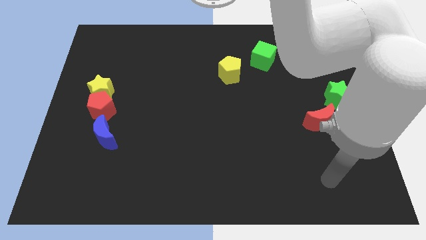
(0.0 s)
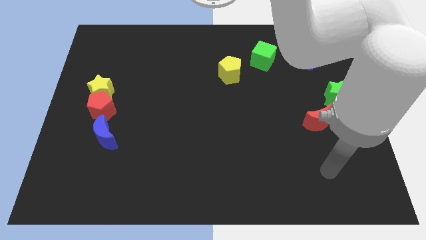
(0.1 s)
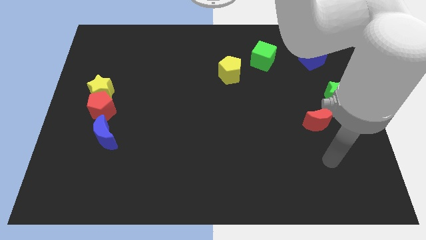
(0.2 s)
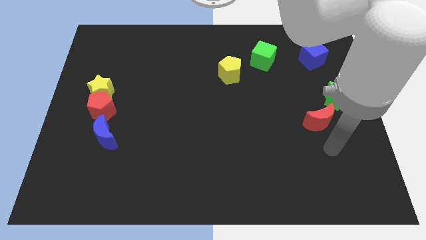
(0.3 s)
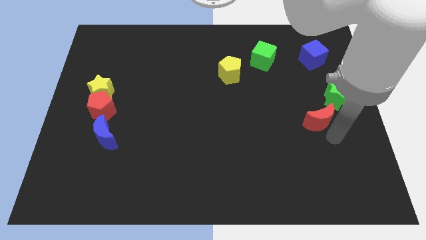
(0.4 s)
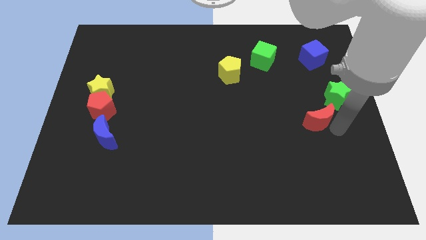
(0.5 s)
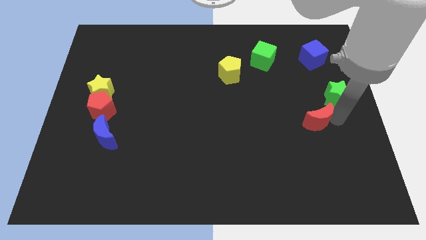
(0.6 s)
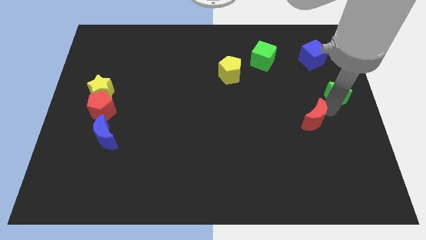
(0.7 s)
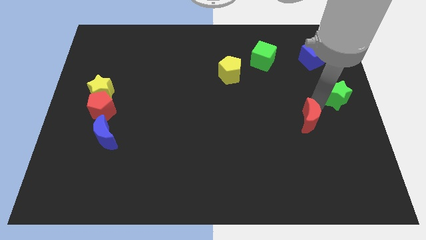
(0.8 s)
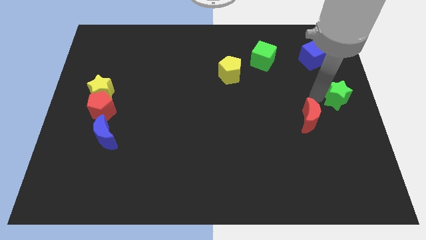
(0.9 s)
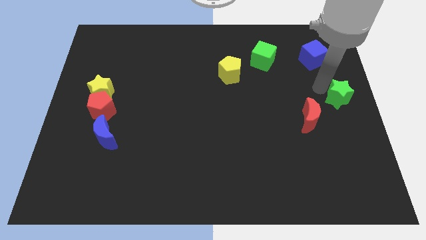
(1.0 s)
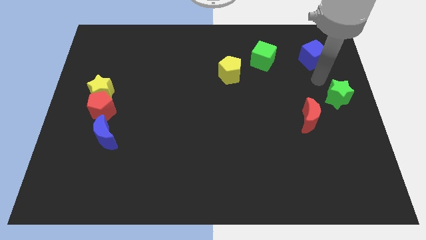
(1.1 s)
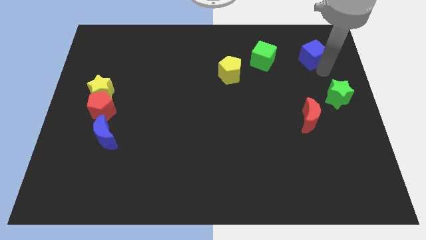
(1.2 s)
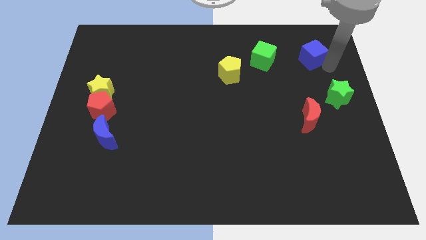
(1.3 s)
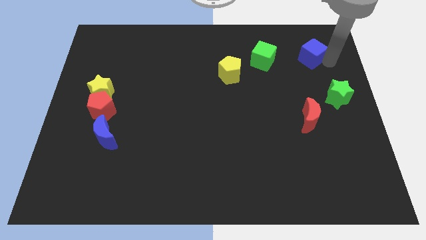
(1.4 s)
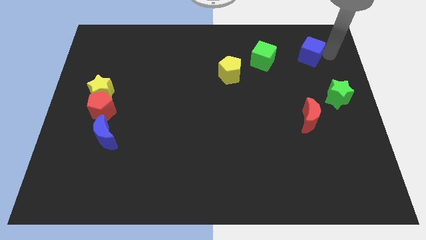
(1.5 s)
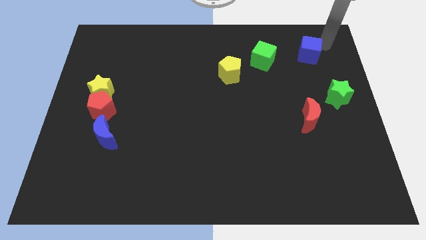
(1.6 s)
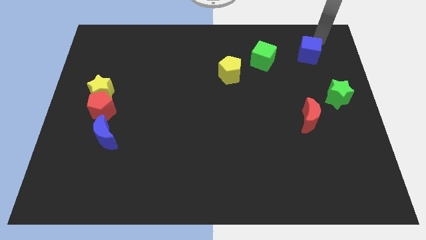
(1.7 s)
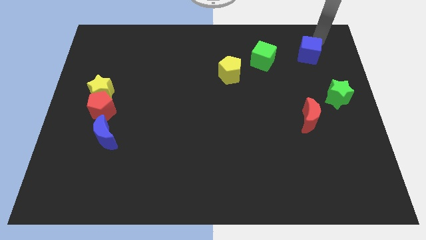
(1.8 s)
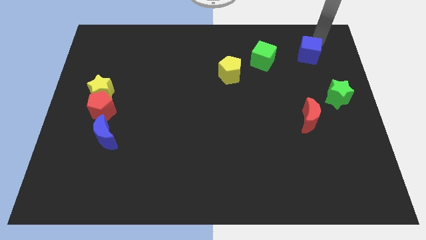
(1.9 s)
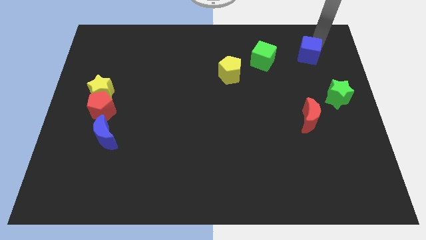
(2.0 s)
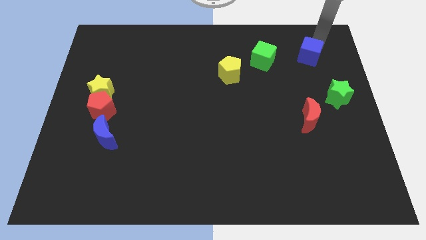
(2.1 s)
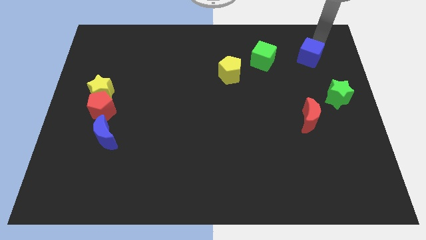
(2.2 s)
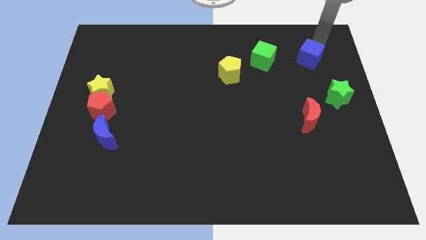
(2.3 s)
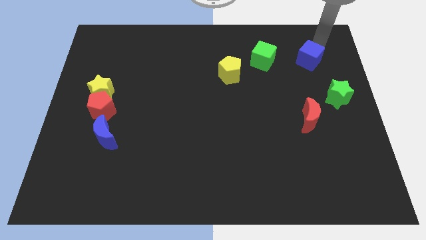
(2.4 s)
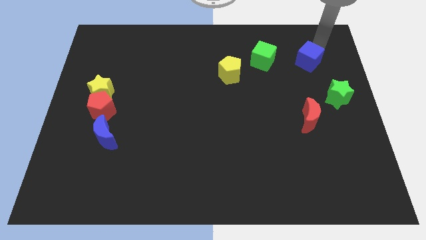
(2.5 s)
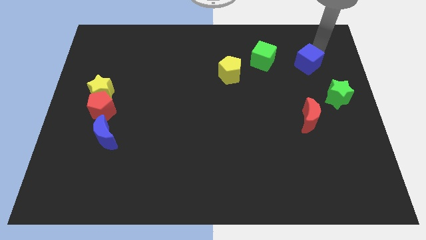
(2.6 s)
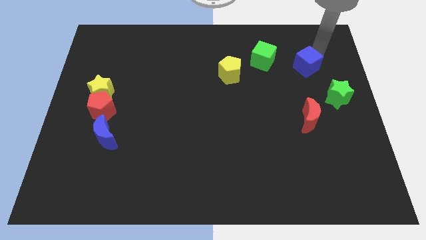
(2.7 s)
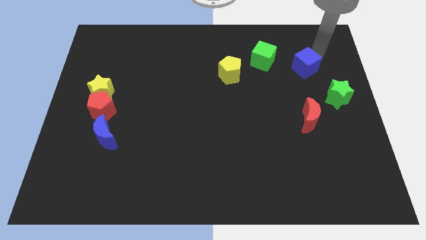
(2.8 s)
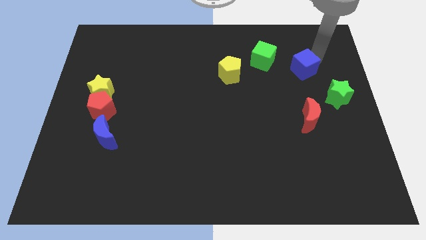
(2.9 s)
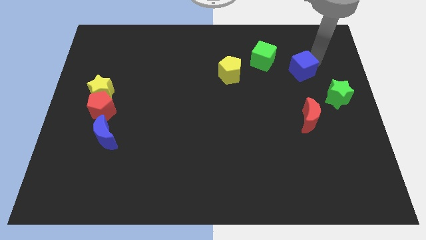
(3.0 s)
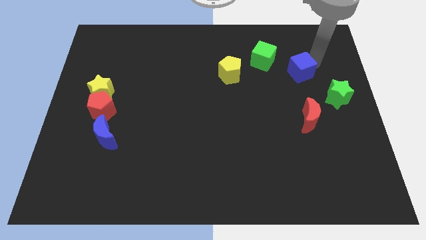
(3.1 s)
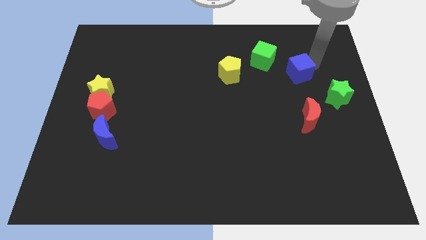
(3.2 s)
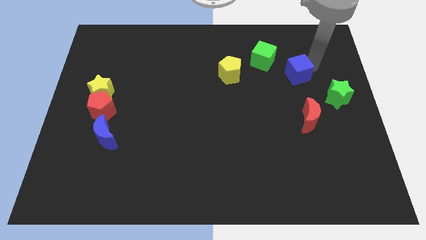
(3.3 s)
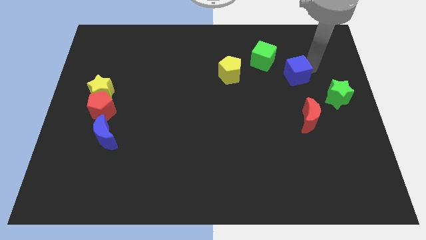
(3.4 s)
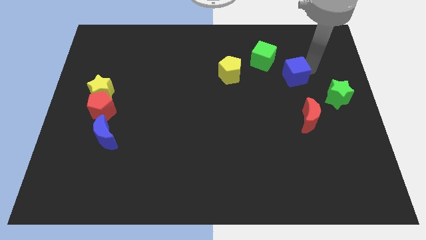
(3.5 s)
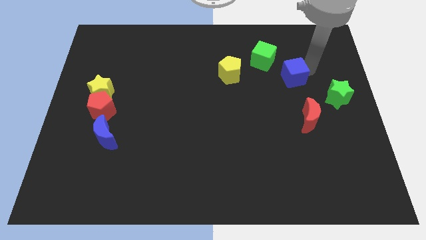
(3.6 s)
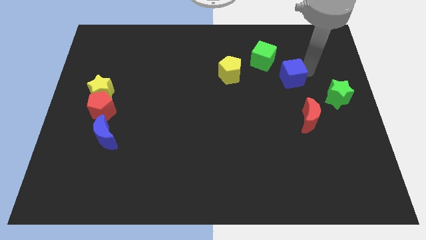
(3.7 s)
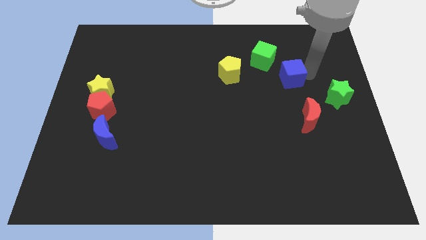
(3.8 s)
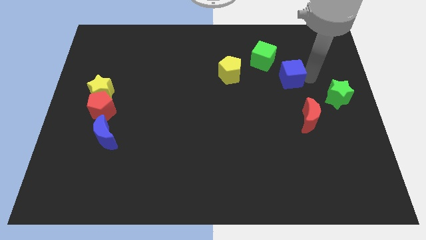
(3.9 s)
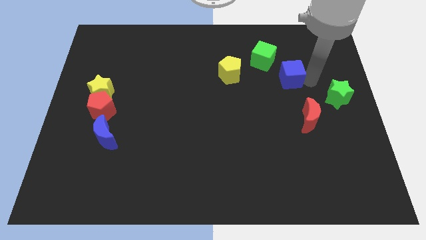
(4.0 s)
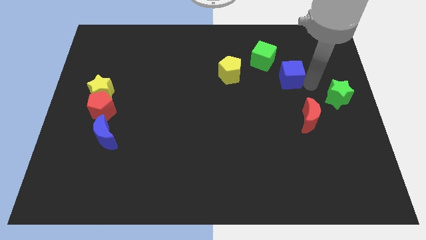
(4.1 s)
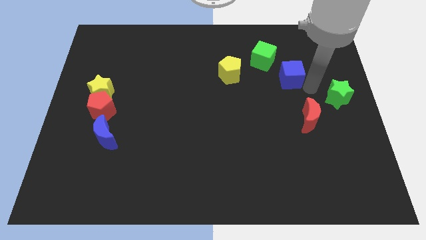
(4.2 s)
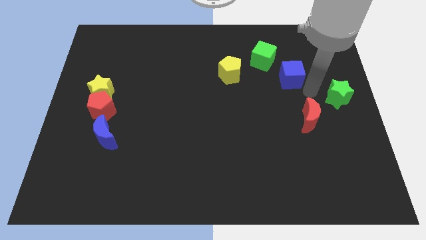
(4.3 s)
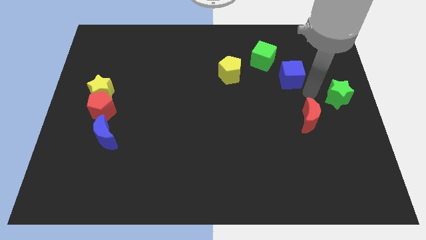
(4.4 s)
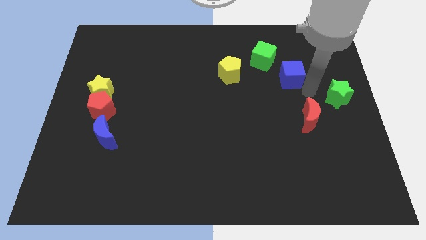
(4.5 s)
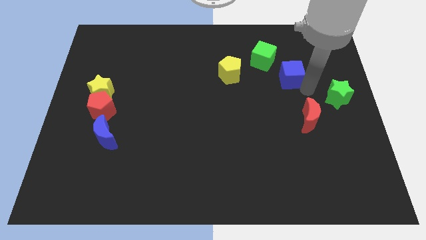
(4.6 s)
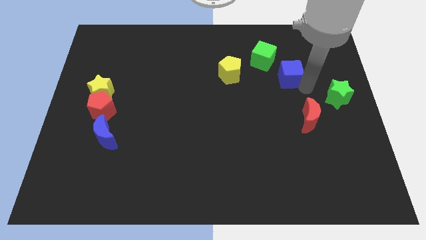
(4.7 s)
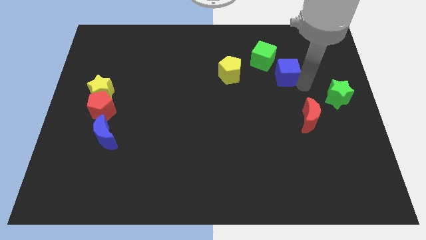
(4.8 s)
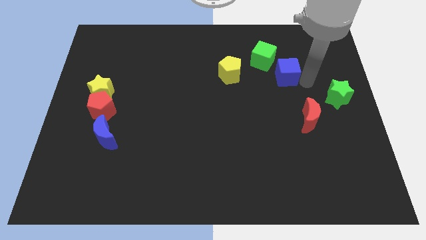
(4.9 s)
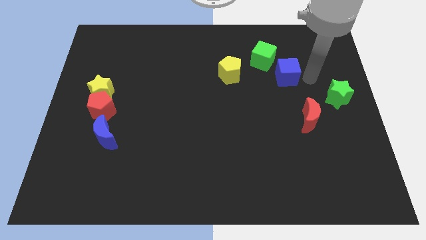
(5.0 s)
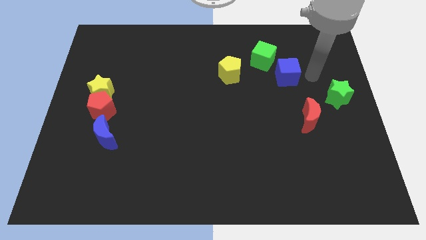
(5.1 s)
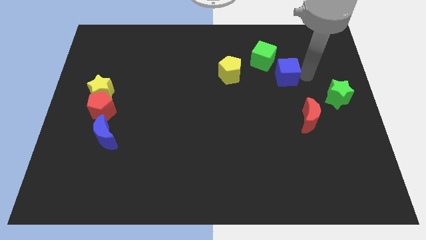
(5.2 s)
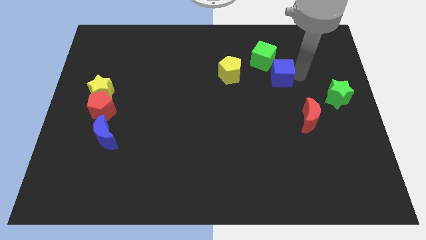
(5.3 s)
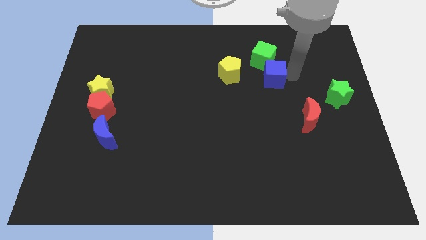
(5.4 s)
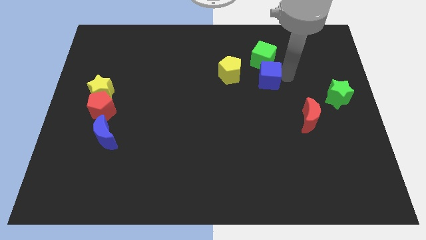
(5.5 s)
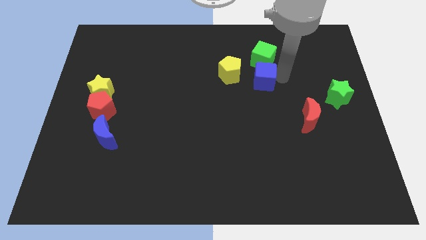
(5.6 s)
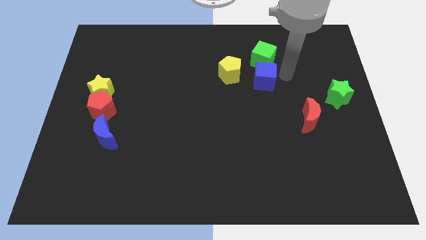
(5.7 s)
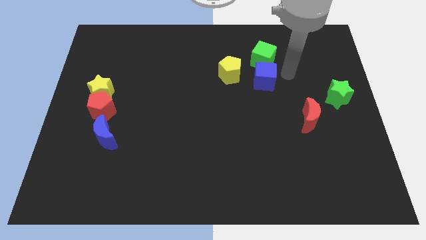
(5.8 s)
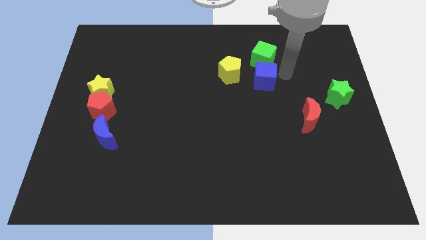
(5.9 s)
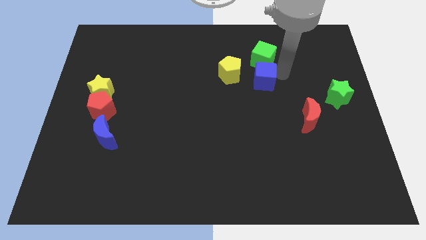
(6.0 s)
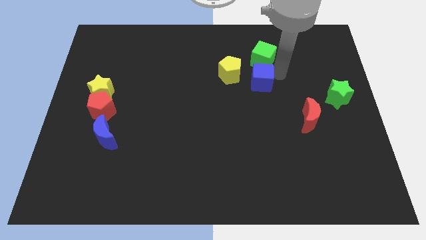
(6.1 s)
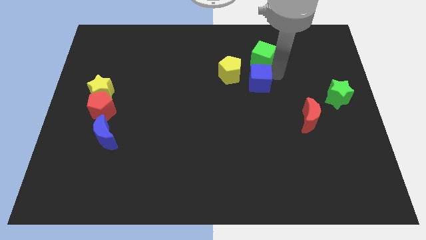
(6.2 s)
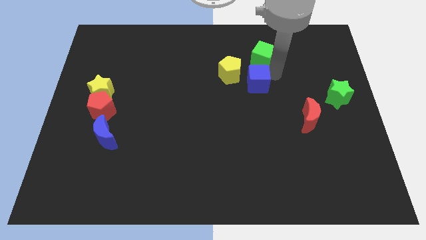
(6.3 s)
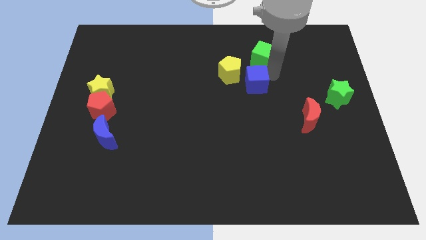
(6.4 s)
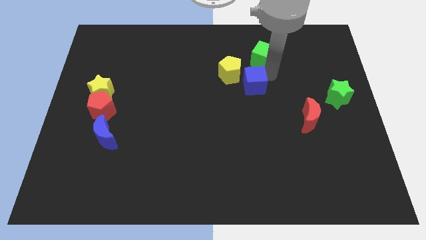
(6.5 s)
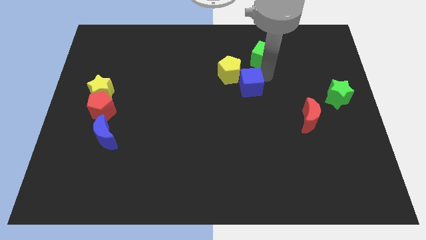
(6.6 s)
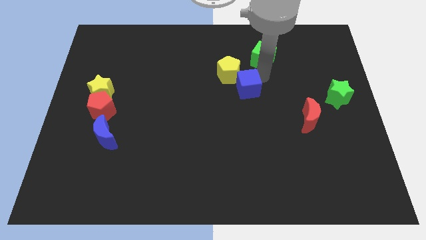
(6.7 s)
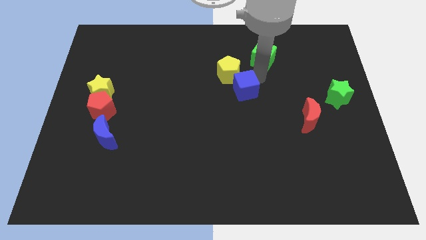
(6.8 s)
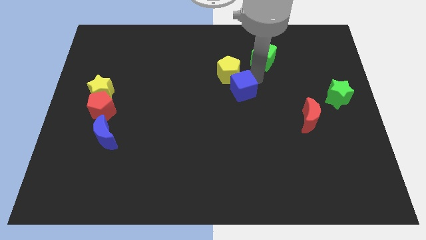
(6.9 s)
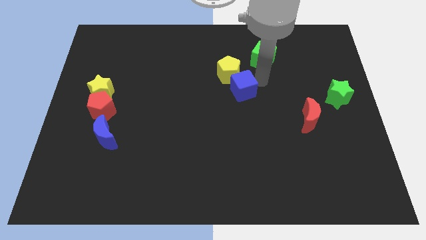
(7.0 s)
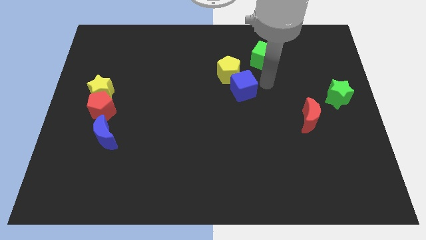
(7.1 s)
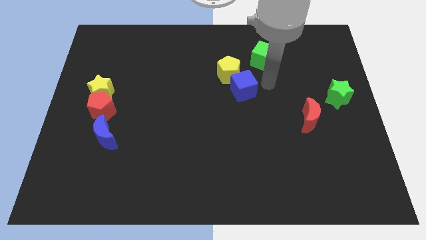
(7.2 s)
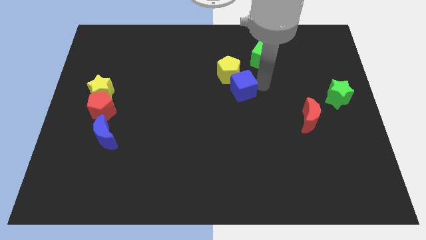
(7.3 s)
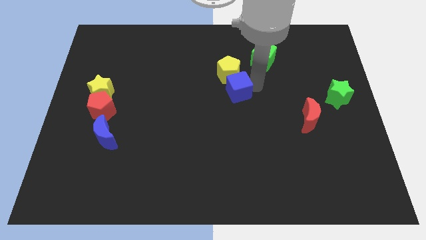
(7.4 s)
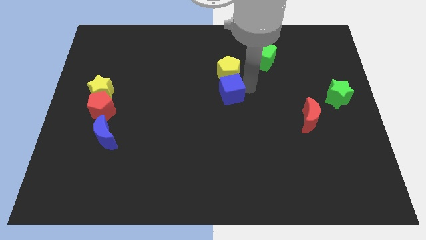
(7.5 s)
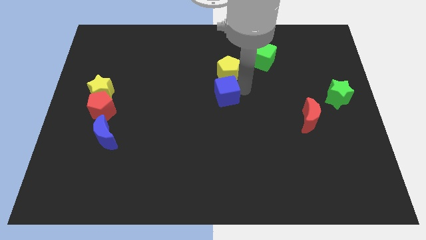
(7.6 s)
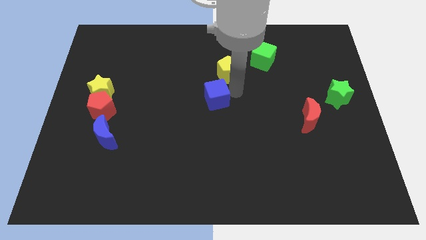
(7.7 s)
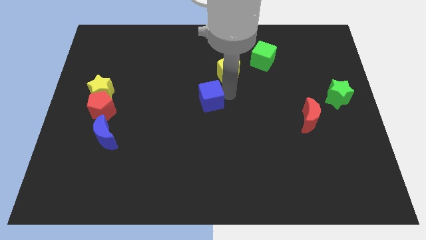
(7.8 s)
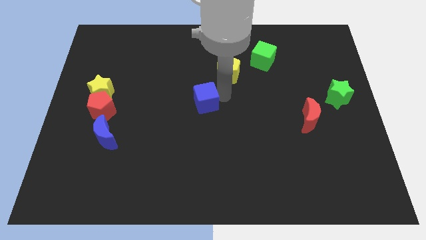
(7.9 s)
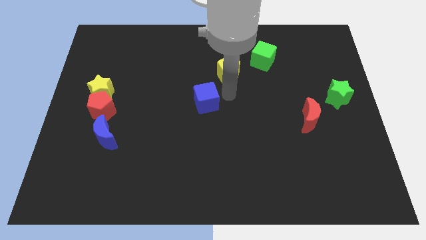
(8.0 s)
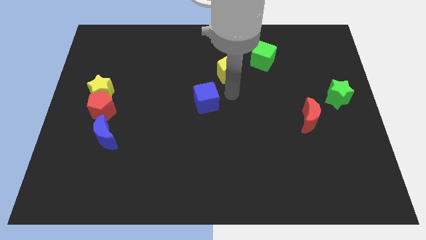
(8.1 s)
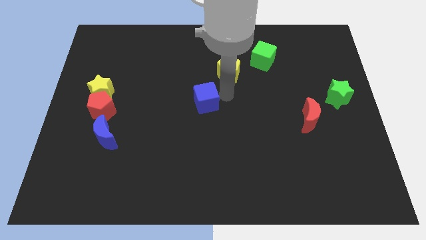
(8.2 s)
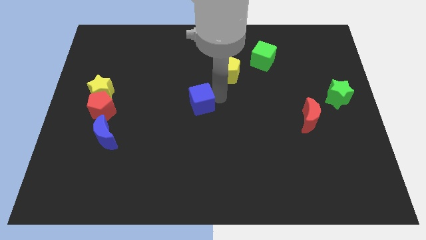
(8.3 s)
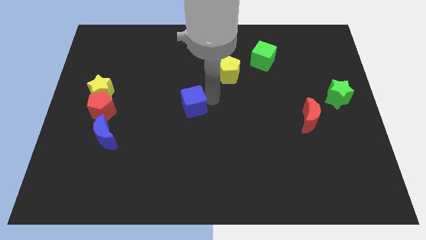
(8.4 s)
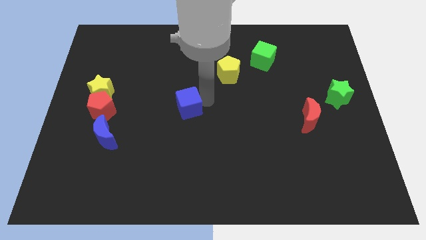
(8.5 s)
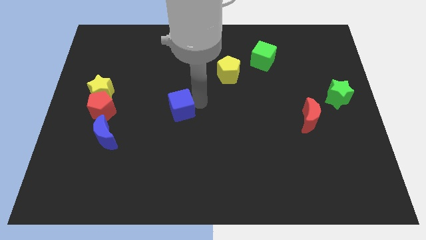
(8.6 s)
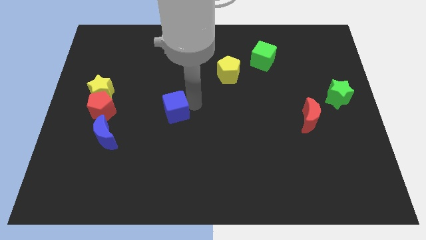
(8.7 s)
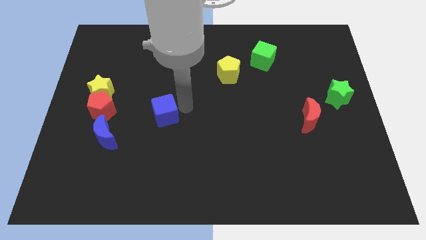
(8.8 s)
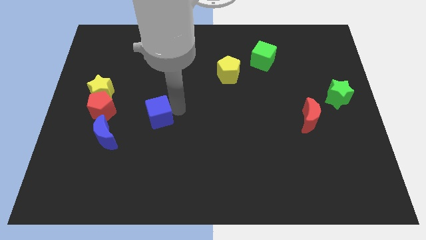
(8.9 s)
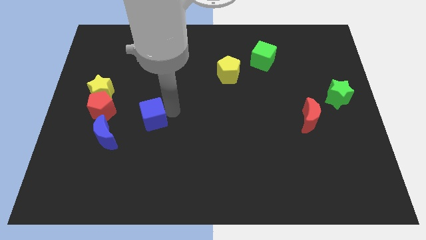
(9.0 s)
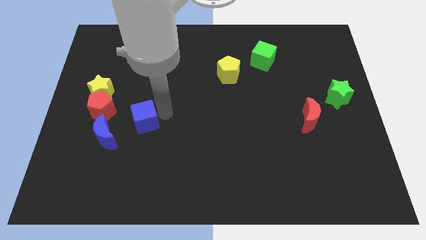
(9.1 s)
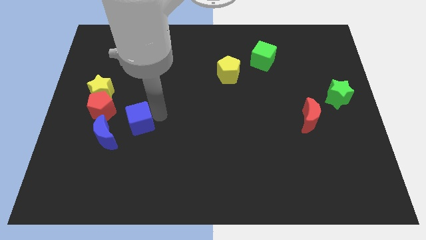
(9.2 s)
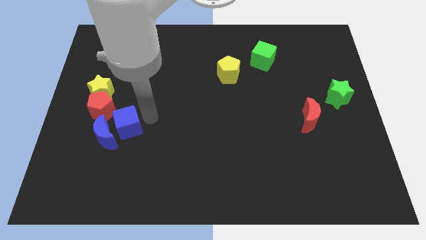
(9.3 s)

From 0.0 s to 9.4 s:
push the blue cube next to the blue moon
